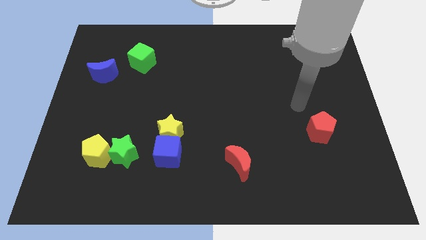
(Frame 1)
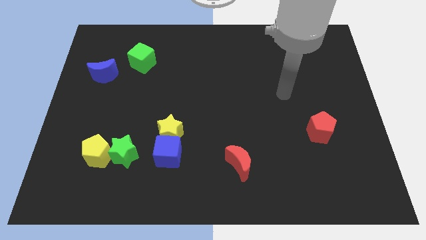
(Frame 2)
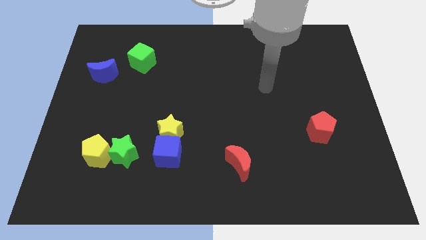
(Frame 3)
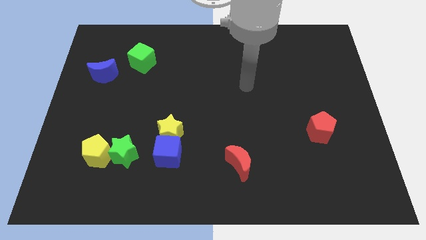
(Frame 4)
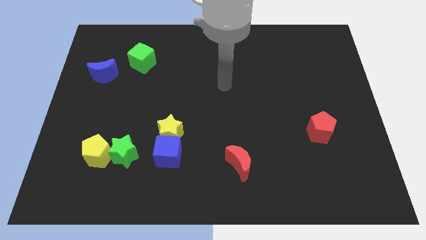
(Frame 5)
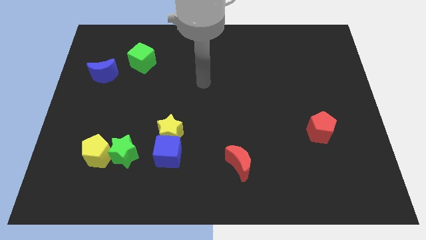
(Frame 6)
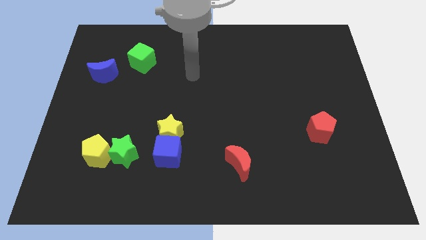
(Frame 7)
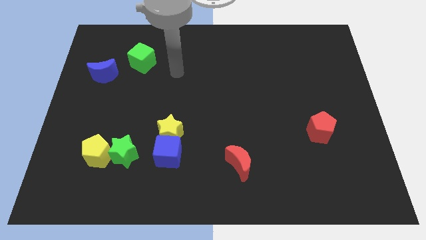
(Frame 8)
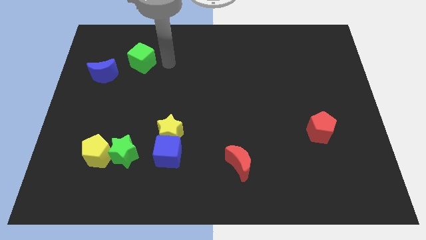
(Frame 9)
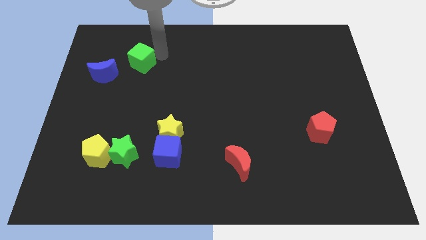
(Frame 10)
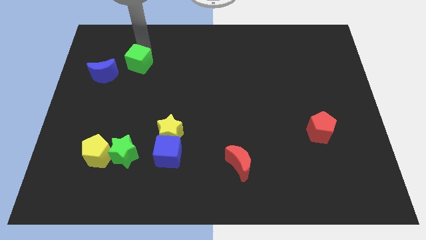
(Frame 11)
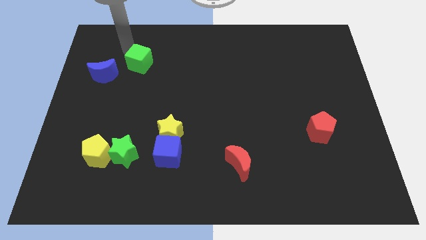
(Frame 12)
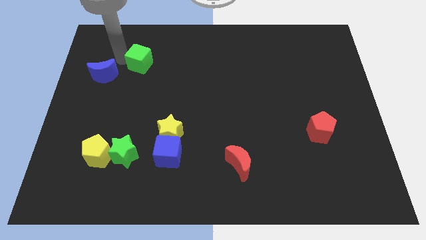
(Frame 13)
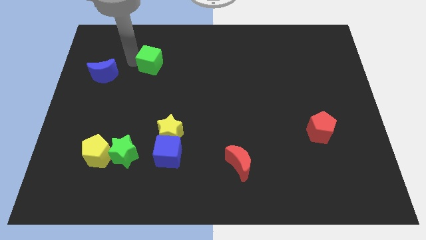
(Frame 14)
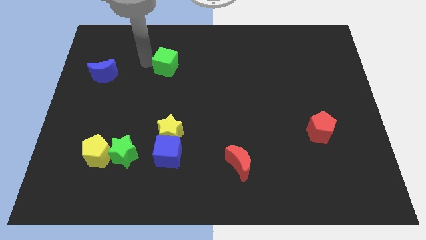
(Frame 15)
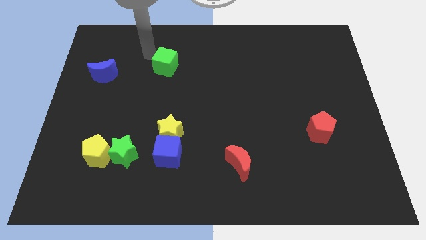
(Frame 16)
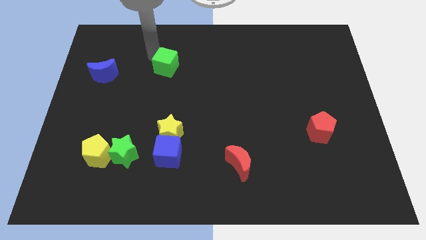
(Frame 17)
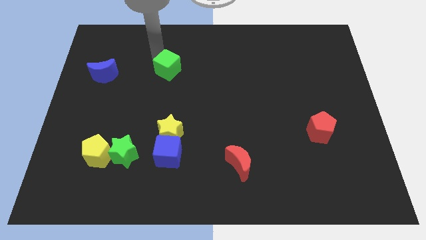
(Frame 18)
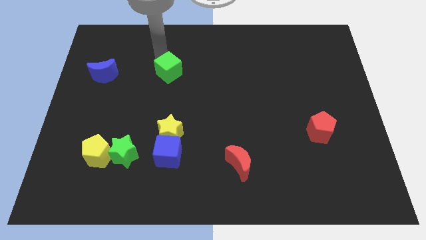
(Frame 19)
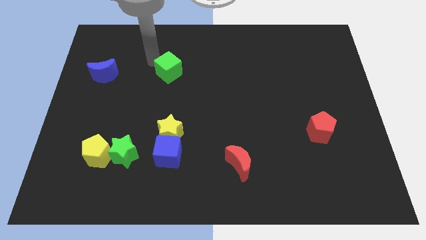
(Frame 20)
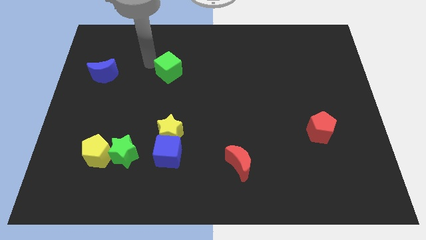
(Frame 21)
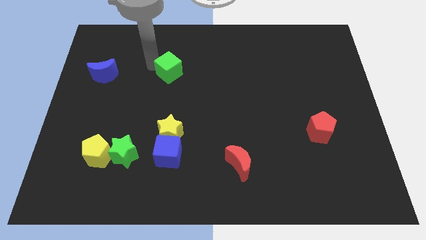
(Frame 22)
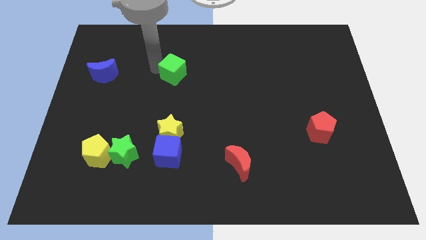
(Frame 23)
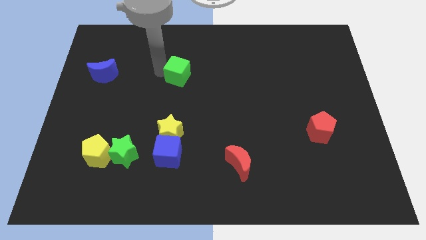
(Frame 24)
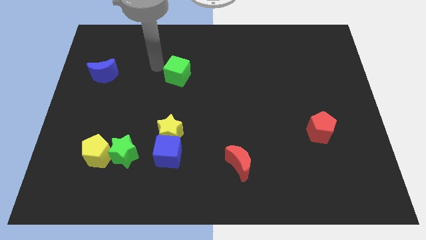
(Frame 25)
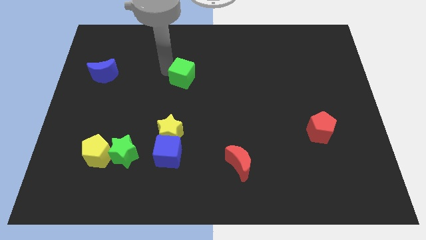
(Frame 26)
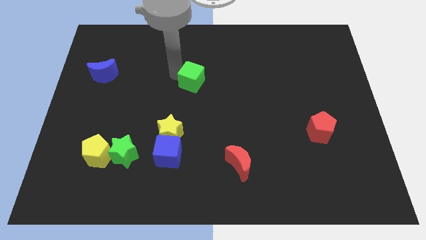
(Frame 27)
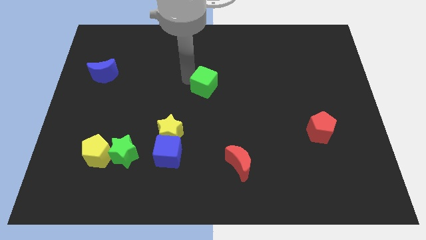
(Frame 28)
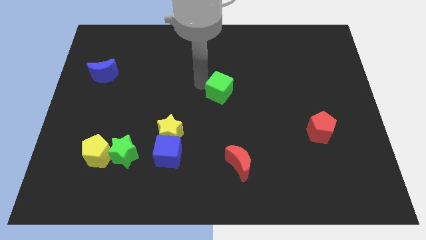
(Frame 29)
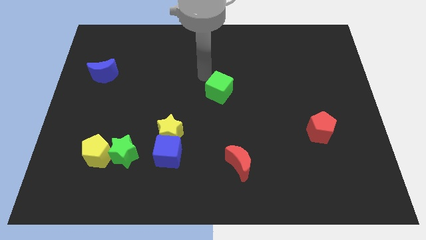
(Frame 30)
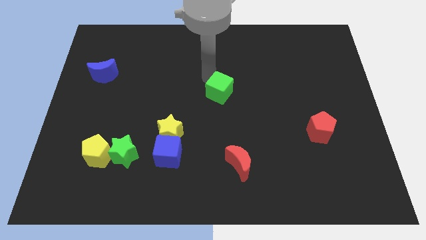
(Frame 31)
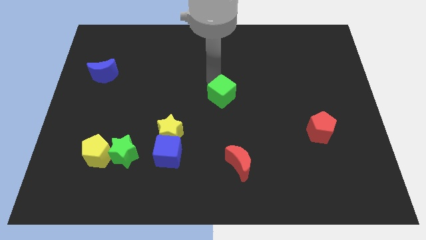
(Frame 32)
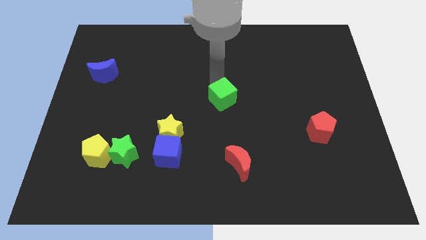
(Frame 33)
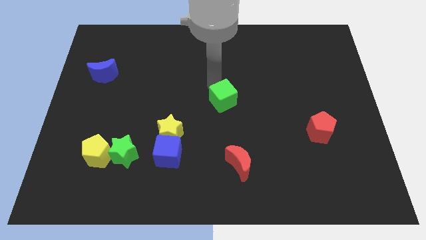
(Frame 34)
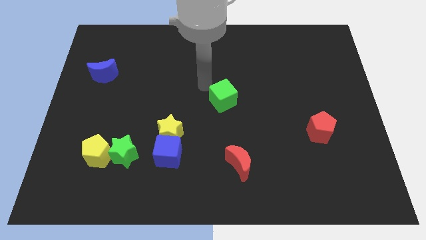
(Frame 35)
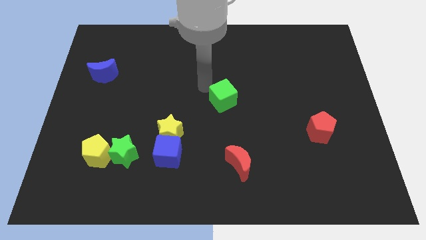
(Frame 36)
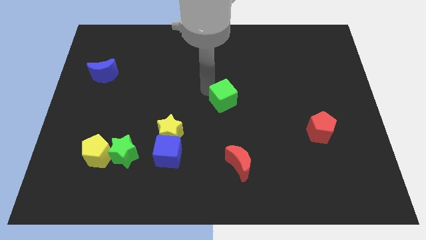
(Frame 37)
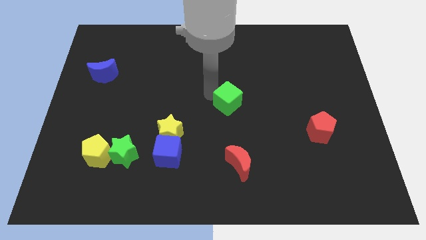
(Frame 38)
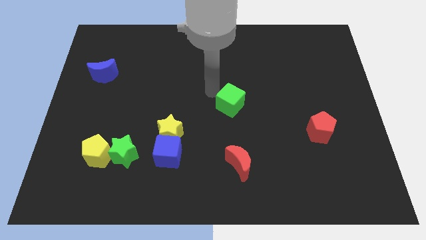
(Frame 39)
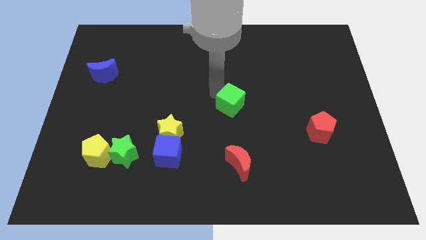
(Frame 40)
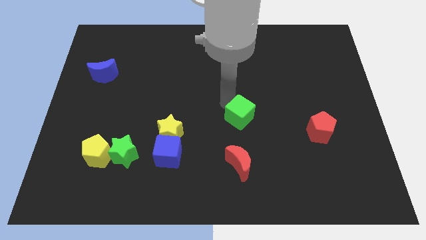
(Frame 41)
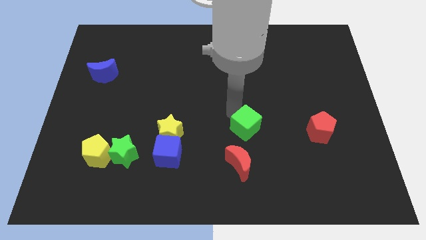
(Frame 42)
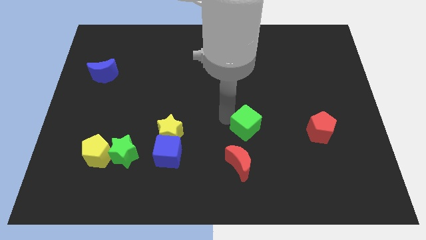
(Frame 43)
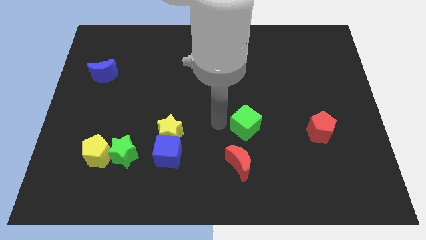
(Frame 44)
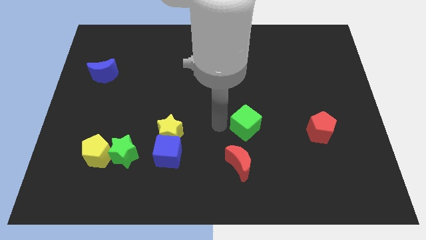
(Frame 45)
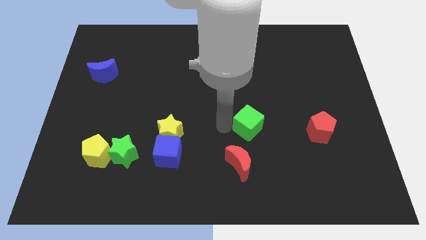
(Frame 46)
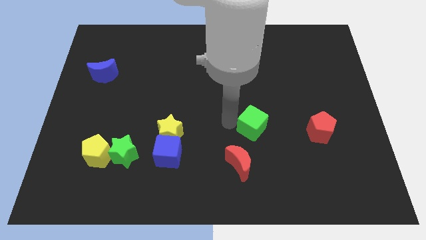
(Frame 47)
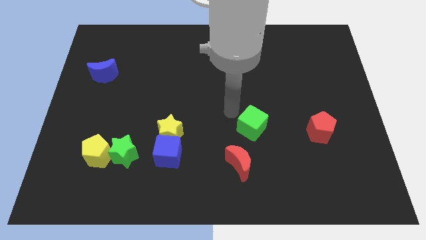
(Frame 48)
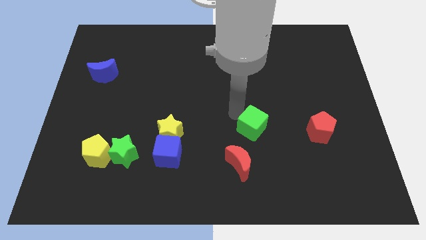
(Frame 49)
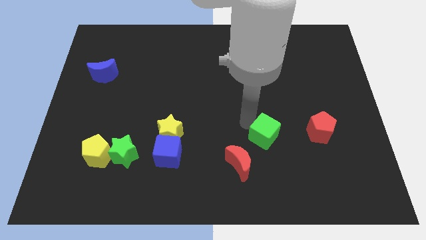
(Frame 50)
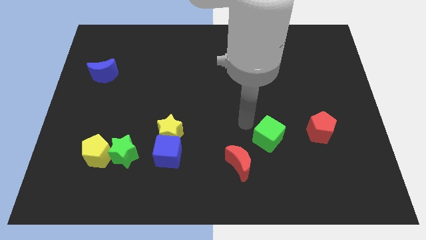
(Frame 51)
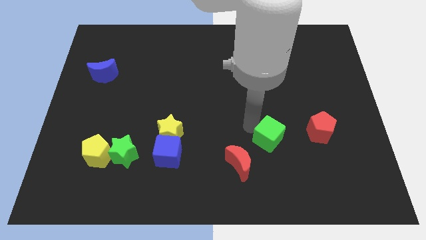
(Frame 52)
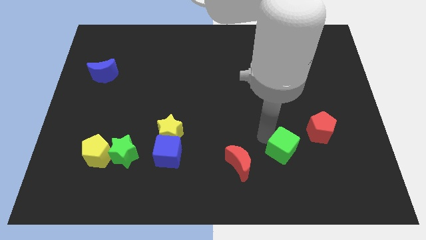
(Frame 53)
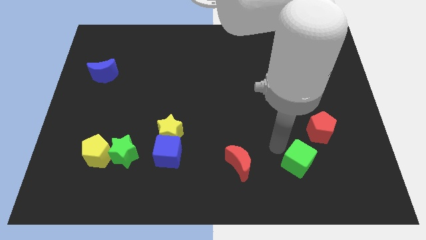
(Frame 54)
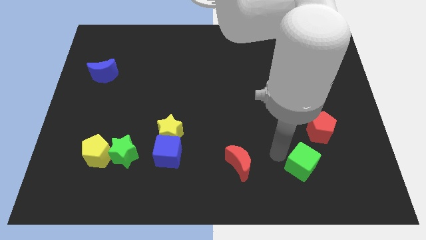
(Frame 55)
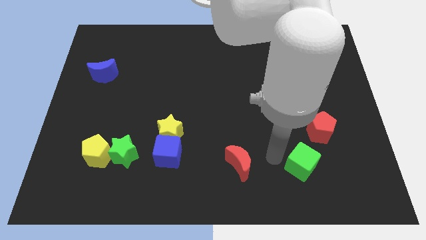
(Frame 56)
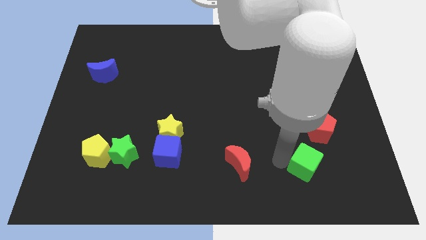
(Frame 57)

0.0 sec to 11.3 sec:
slide the green cube to the bottom of the red pentagon

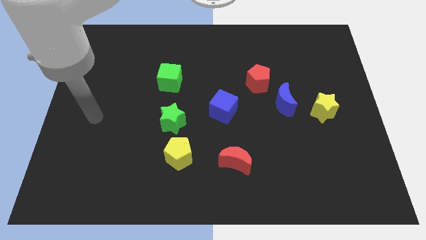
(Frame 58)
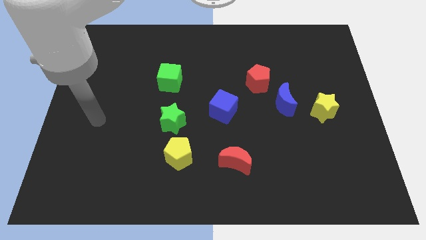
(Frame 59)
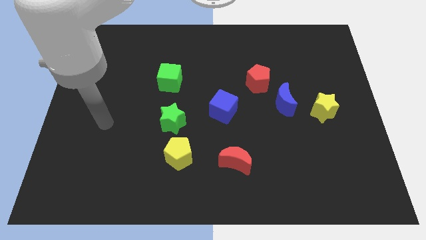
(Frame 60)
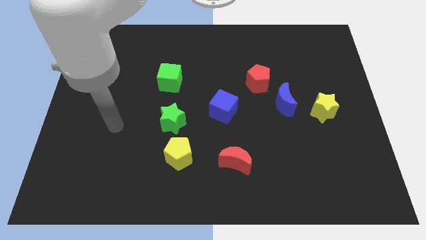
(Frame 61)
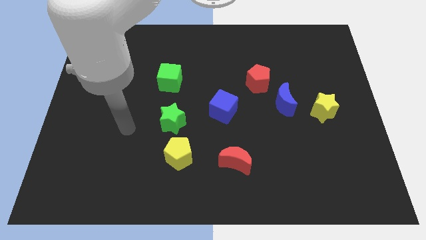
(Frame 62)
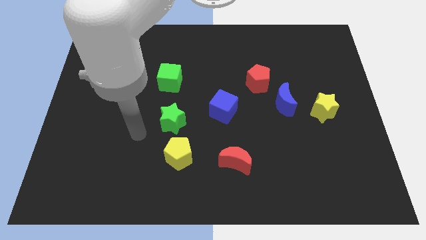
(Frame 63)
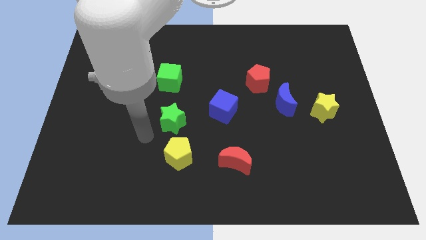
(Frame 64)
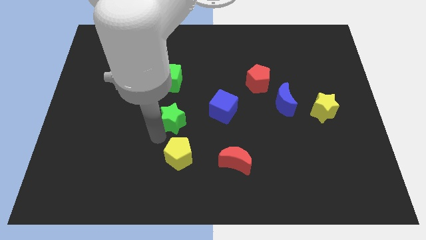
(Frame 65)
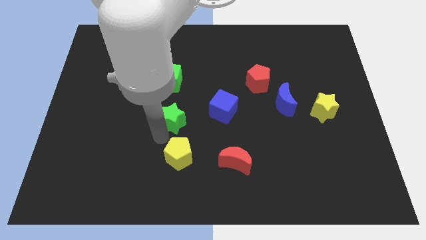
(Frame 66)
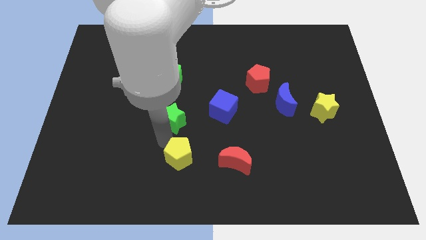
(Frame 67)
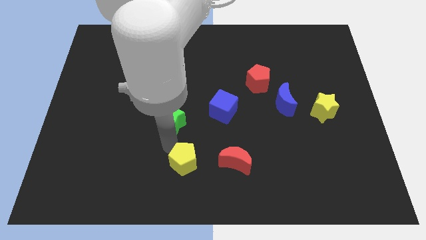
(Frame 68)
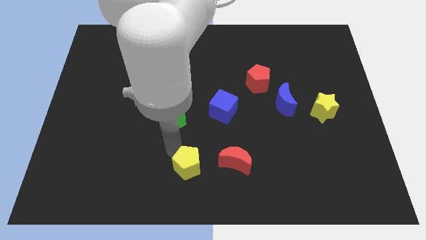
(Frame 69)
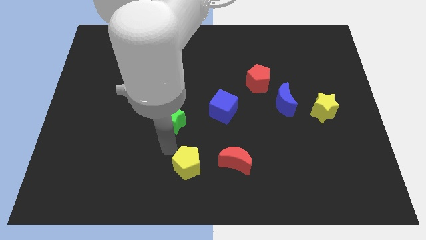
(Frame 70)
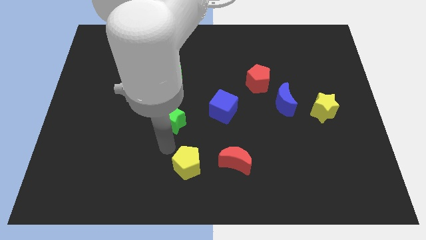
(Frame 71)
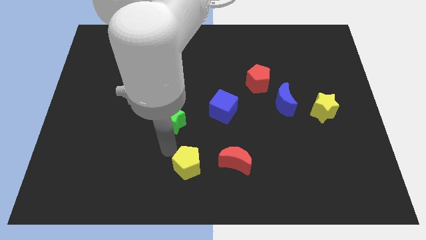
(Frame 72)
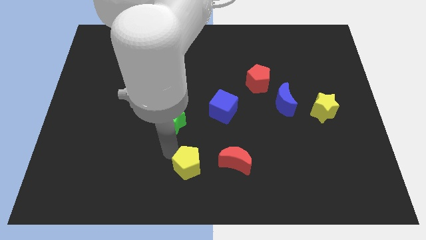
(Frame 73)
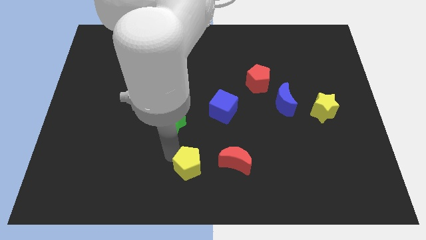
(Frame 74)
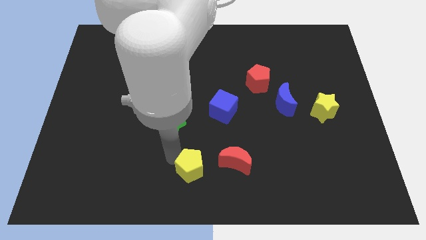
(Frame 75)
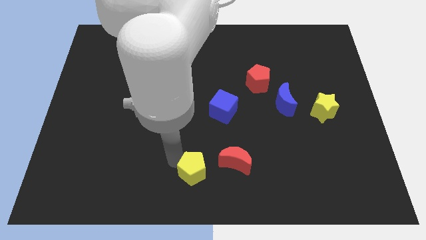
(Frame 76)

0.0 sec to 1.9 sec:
move the yellow pentagon to the bottom left side of the red moon

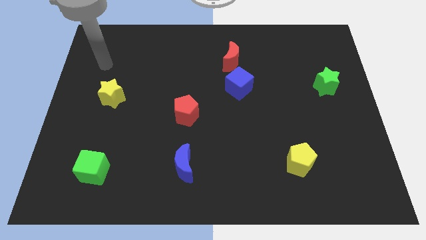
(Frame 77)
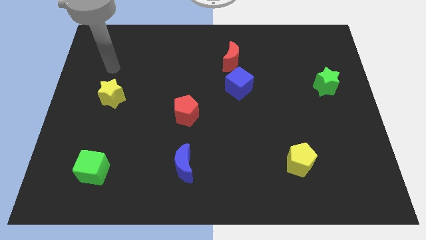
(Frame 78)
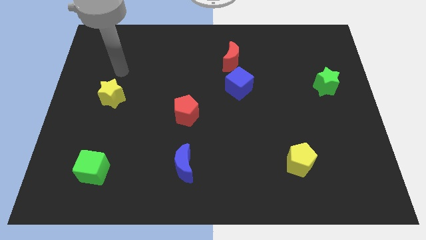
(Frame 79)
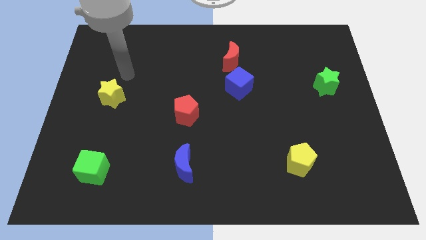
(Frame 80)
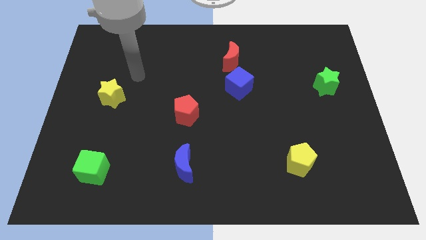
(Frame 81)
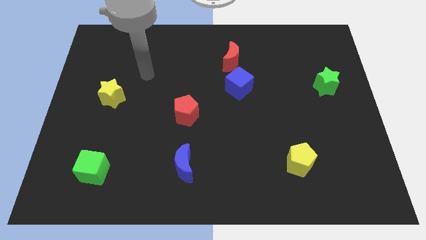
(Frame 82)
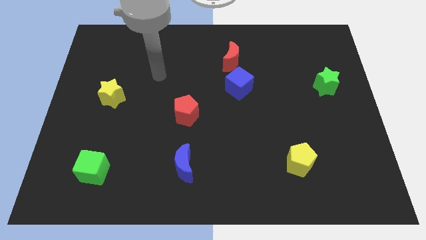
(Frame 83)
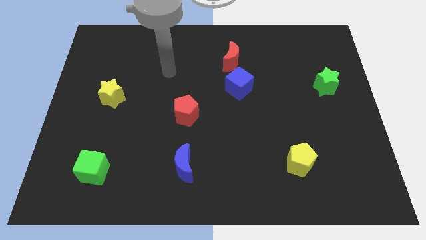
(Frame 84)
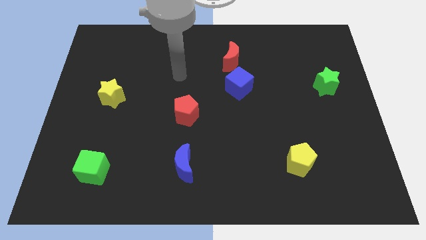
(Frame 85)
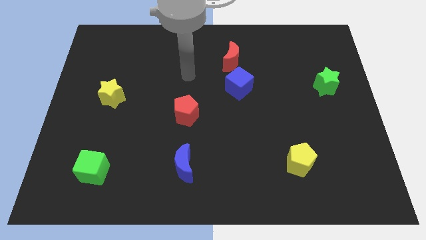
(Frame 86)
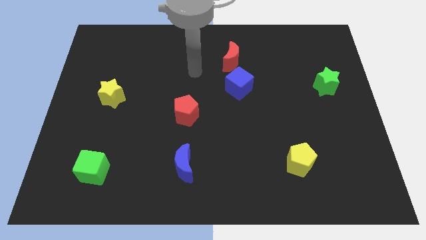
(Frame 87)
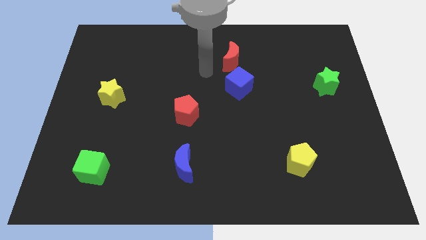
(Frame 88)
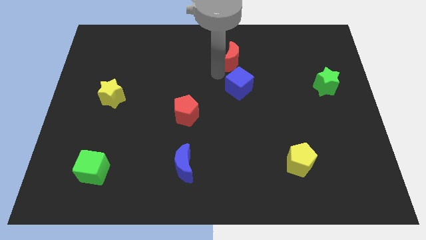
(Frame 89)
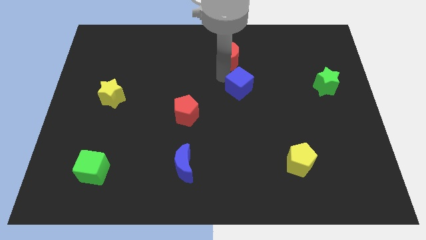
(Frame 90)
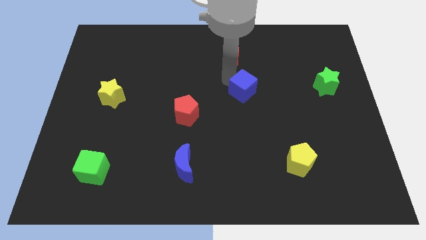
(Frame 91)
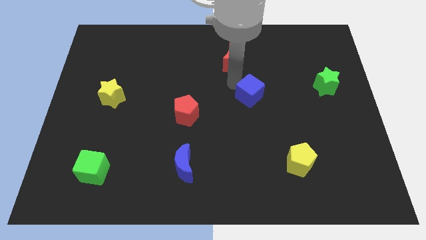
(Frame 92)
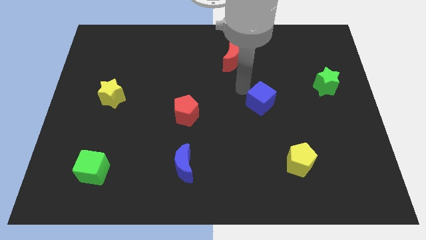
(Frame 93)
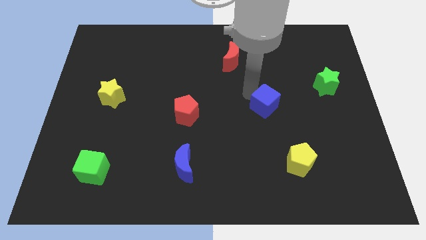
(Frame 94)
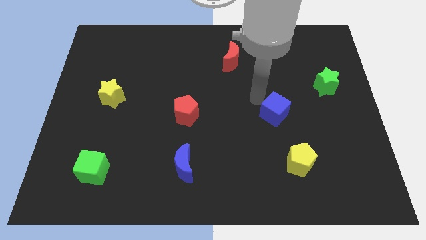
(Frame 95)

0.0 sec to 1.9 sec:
put the blue cube to the top side of the yellow pentagon
